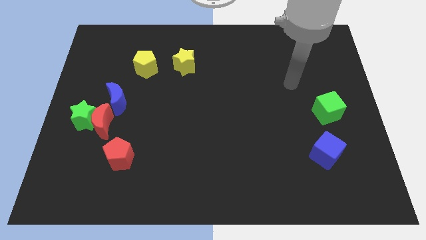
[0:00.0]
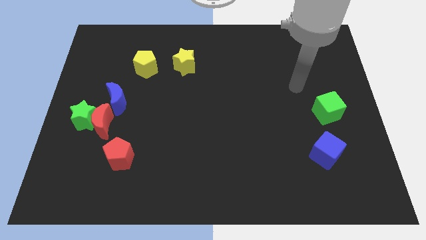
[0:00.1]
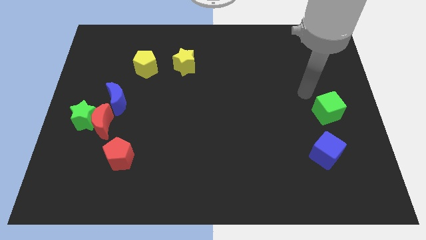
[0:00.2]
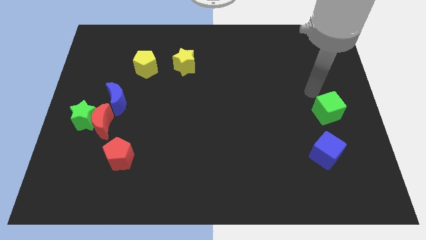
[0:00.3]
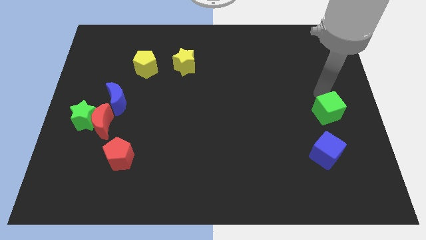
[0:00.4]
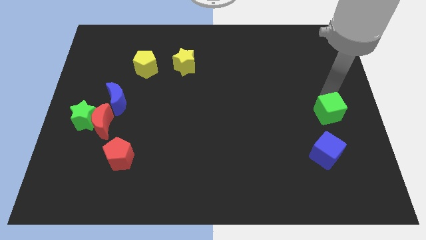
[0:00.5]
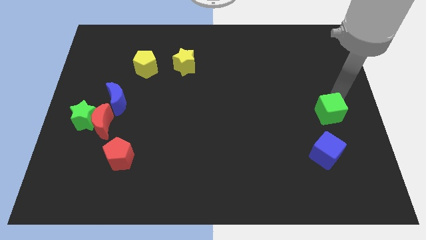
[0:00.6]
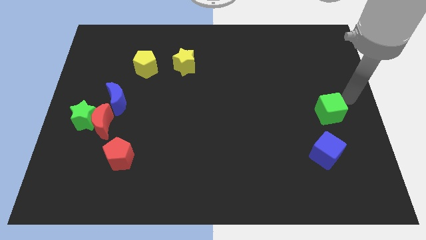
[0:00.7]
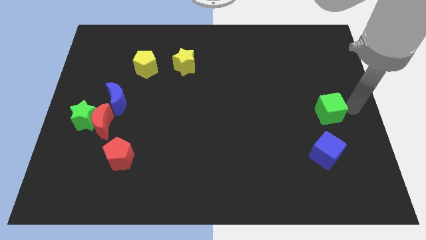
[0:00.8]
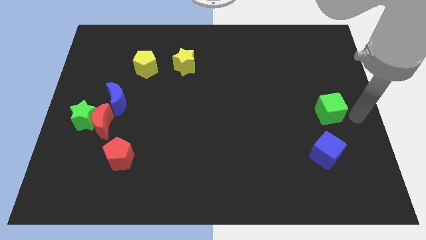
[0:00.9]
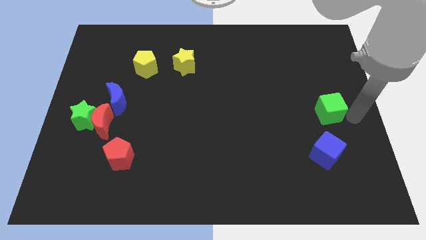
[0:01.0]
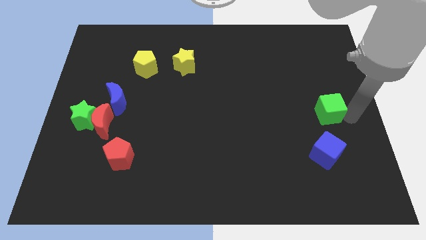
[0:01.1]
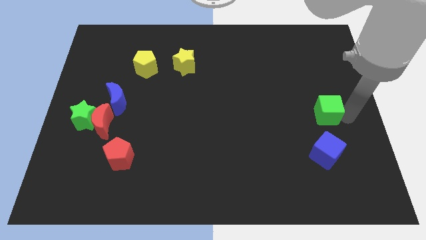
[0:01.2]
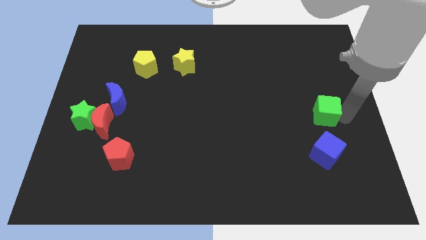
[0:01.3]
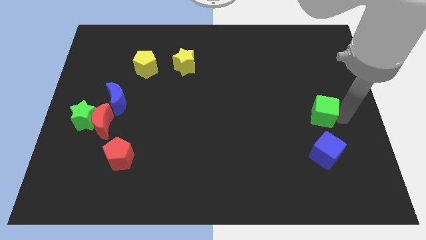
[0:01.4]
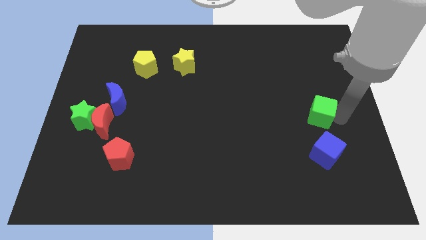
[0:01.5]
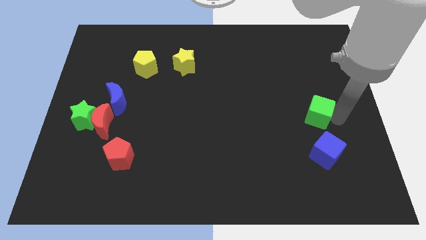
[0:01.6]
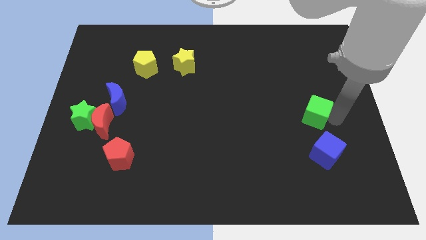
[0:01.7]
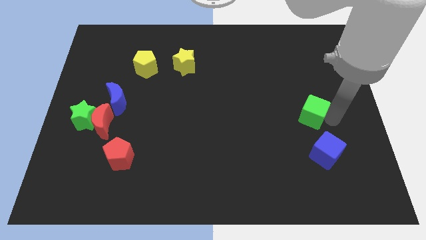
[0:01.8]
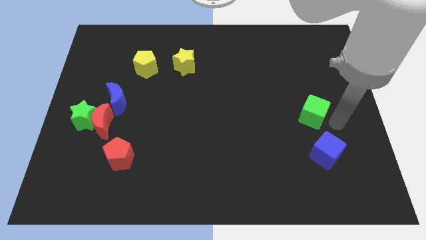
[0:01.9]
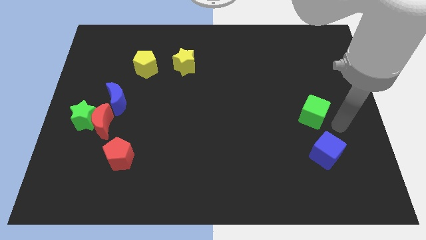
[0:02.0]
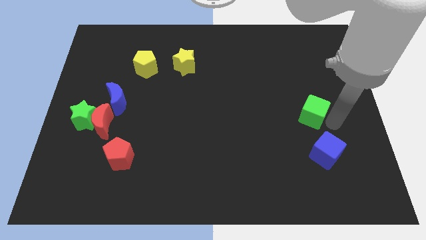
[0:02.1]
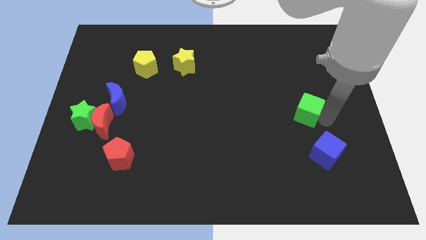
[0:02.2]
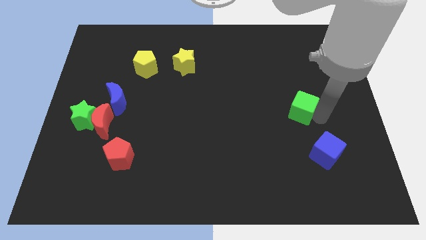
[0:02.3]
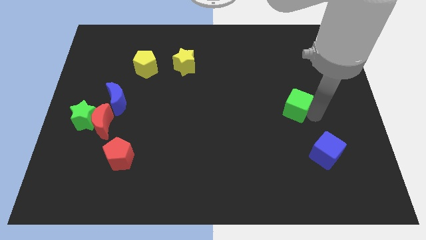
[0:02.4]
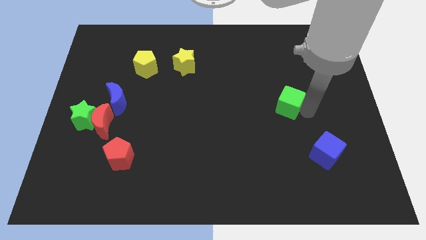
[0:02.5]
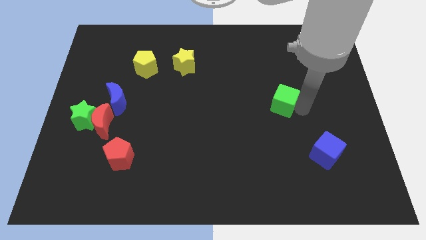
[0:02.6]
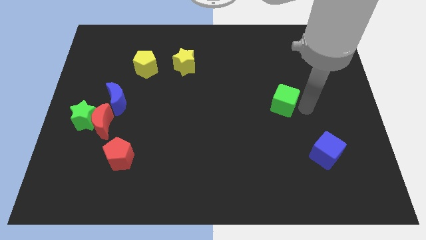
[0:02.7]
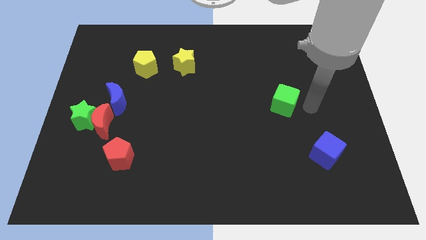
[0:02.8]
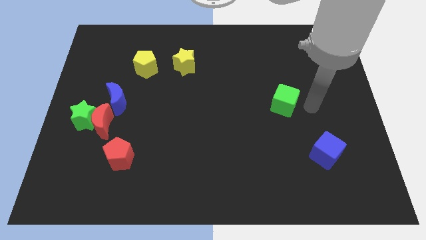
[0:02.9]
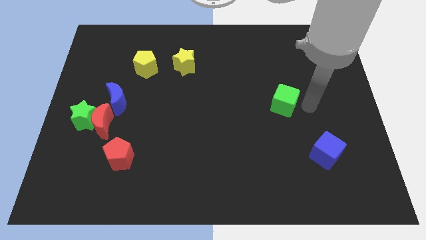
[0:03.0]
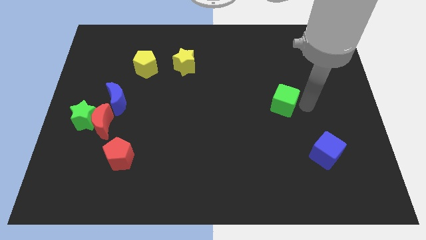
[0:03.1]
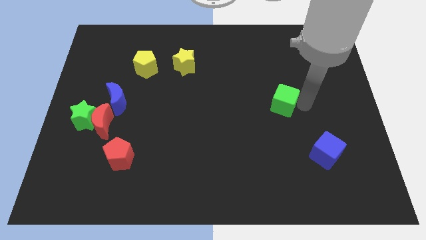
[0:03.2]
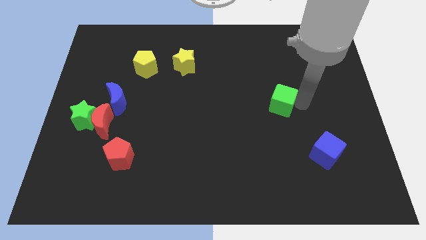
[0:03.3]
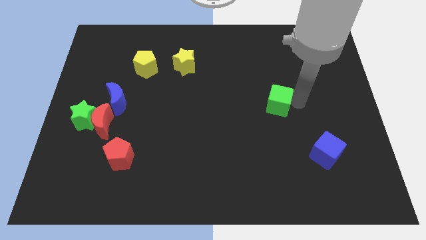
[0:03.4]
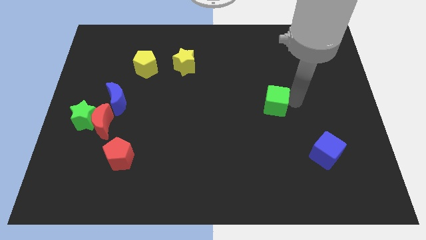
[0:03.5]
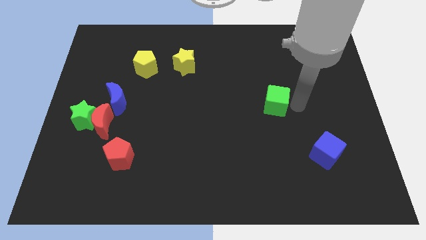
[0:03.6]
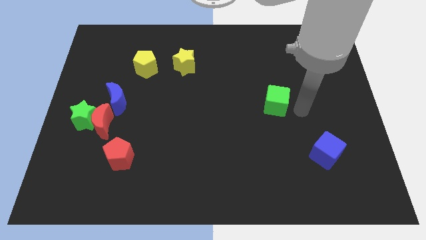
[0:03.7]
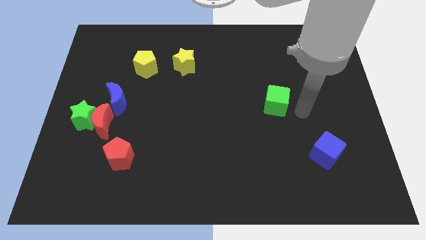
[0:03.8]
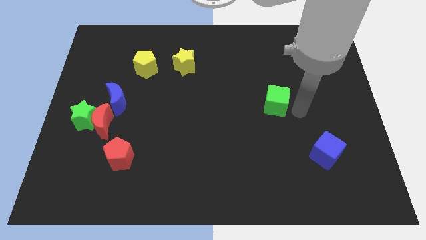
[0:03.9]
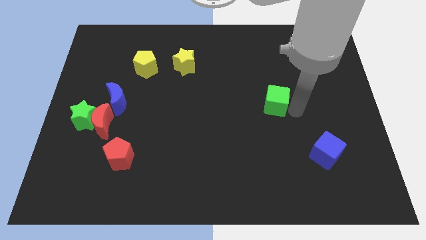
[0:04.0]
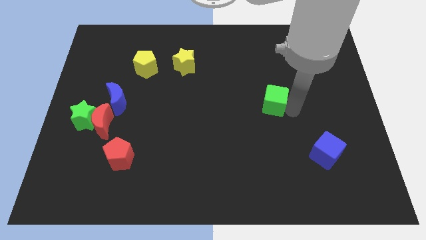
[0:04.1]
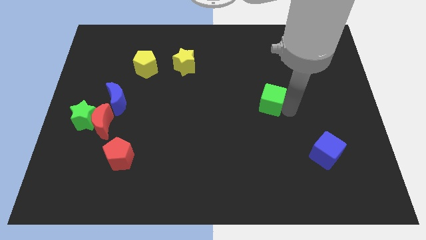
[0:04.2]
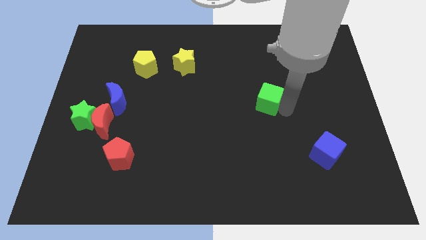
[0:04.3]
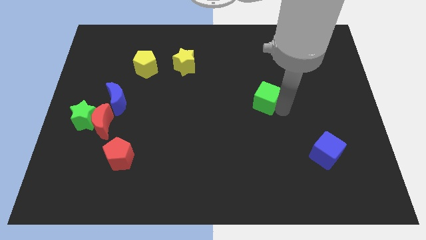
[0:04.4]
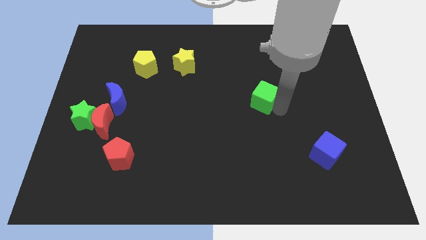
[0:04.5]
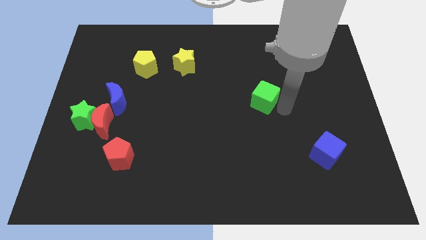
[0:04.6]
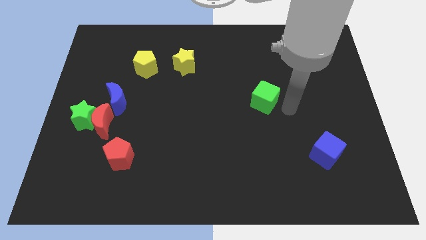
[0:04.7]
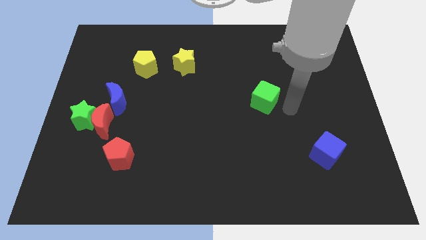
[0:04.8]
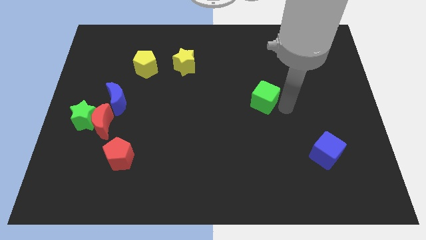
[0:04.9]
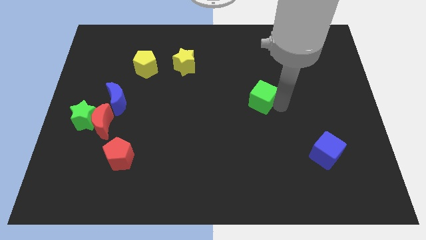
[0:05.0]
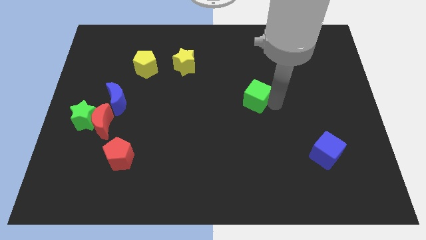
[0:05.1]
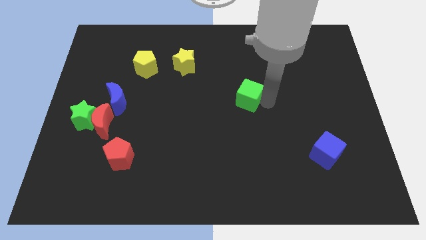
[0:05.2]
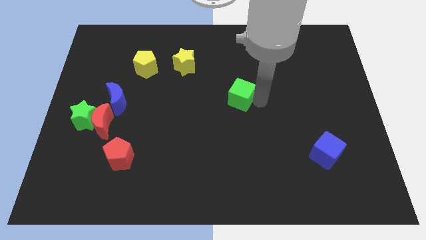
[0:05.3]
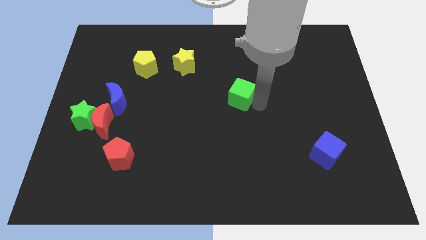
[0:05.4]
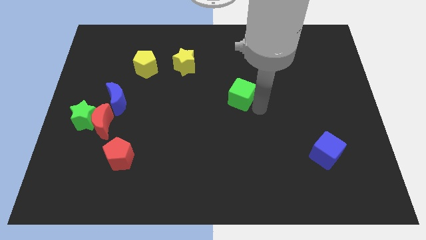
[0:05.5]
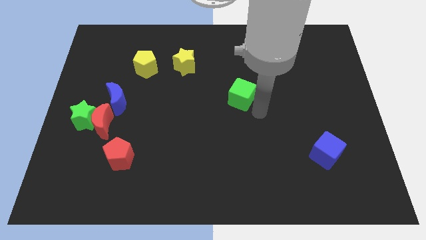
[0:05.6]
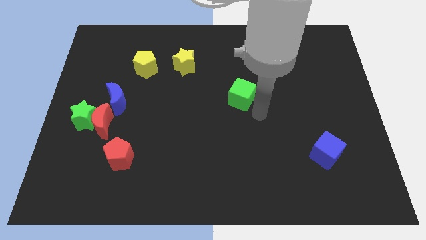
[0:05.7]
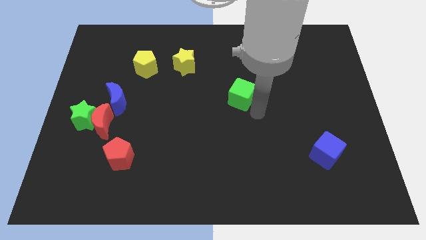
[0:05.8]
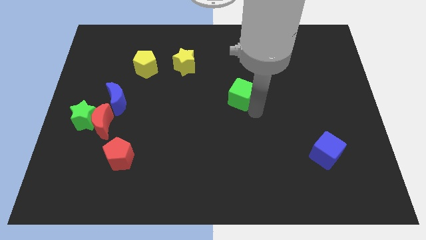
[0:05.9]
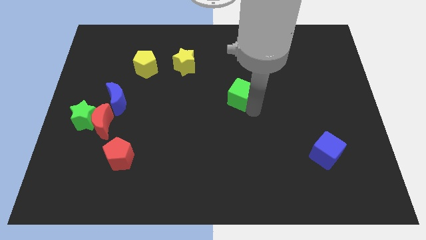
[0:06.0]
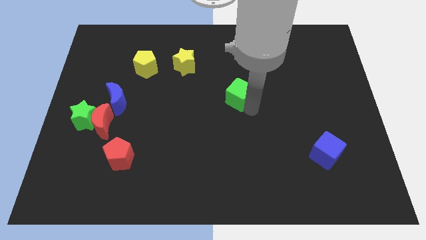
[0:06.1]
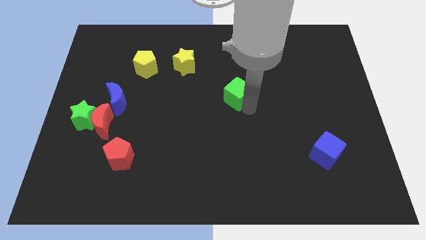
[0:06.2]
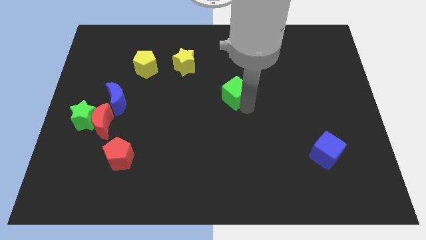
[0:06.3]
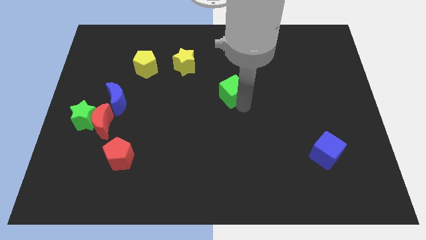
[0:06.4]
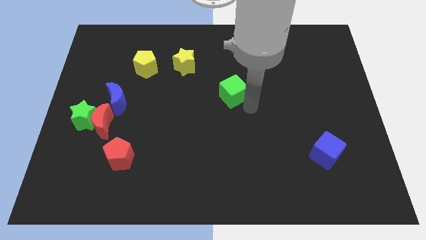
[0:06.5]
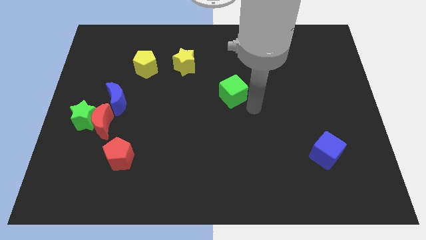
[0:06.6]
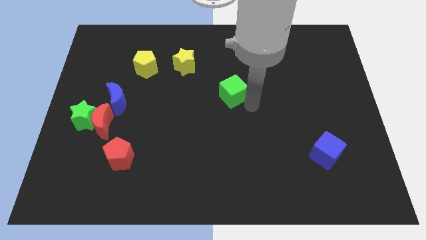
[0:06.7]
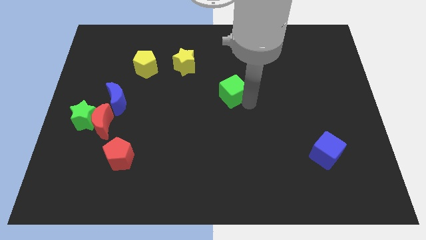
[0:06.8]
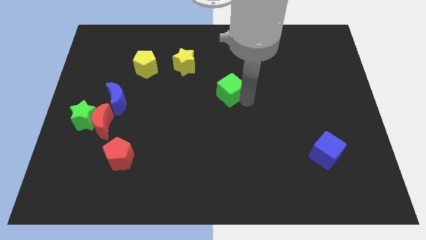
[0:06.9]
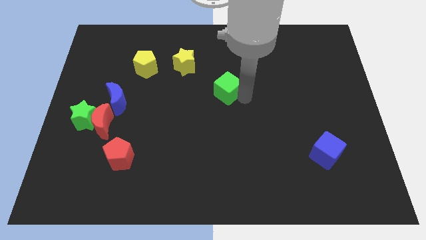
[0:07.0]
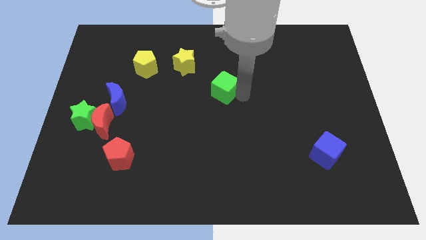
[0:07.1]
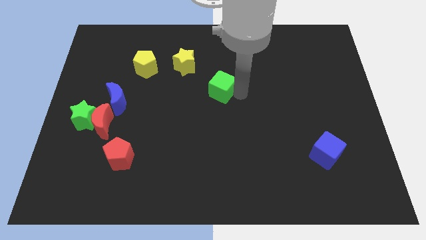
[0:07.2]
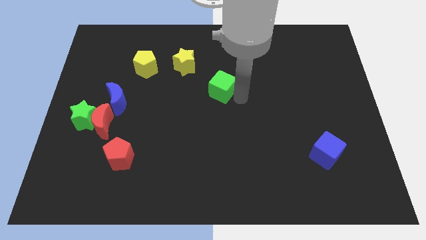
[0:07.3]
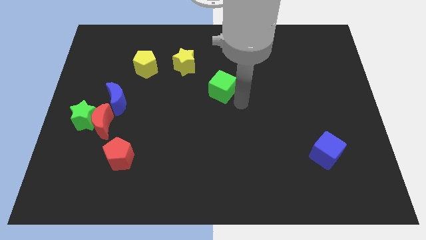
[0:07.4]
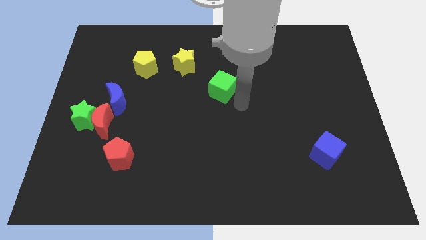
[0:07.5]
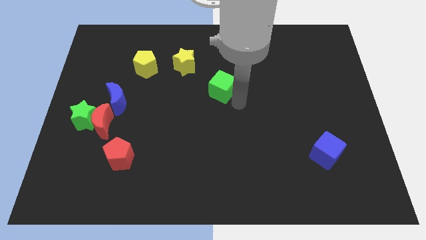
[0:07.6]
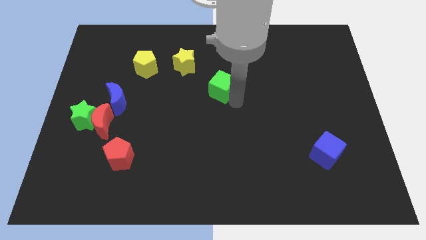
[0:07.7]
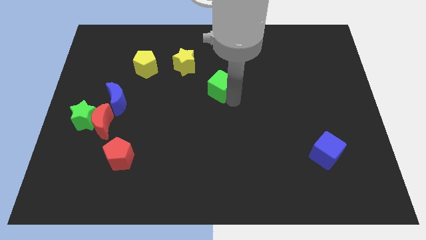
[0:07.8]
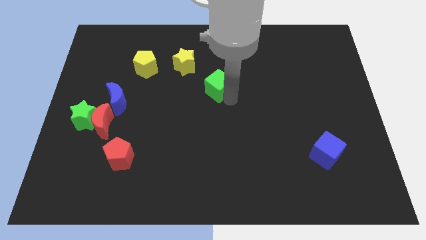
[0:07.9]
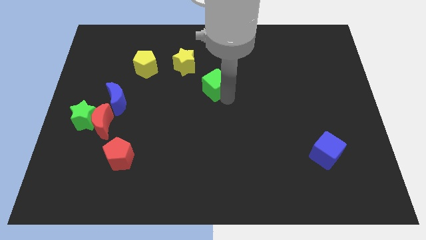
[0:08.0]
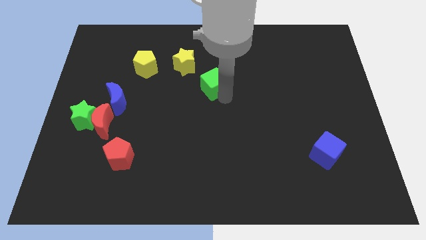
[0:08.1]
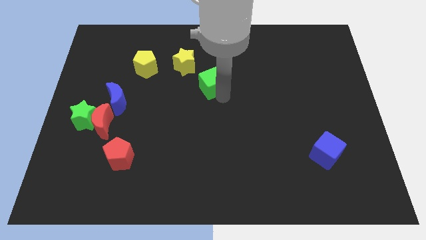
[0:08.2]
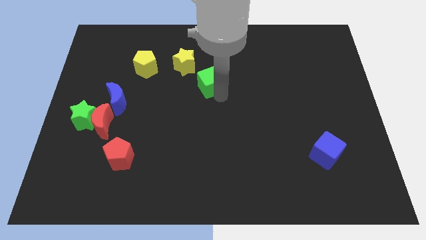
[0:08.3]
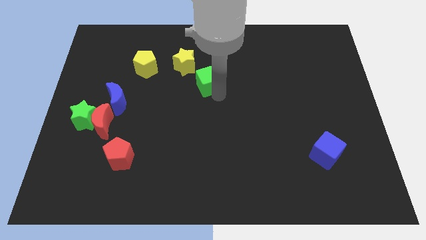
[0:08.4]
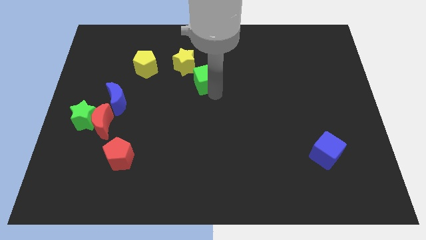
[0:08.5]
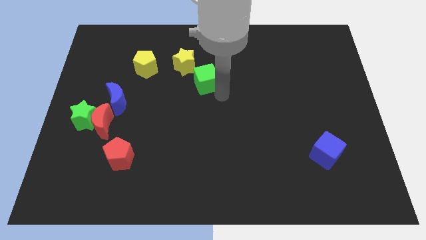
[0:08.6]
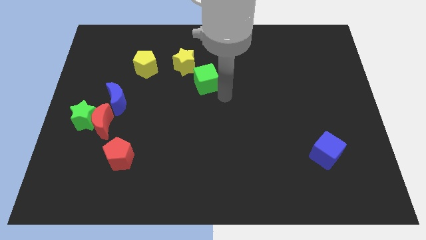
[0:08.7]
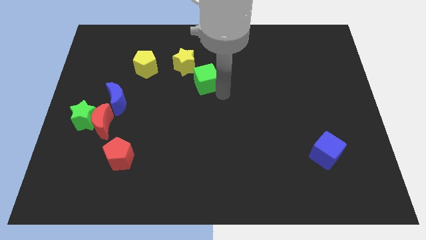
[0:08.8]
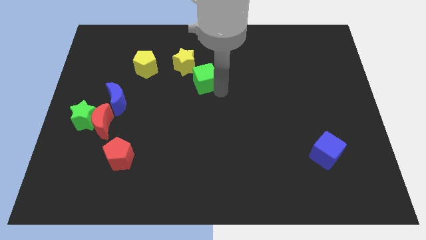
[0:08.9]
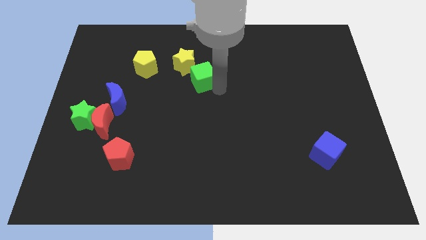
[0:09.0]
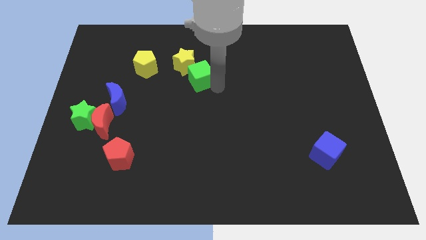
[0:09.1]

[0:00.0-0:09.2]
slide the green cube to the yellow star
